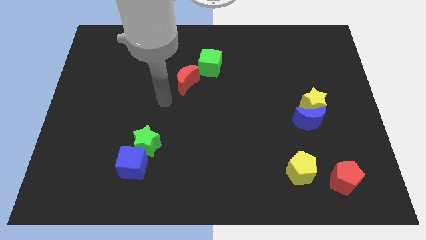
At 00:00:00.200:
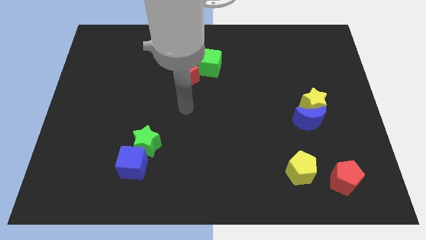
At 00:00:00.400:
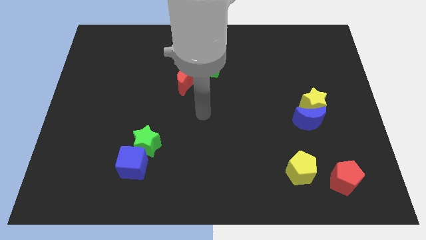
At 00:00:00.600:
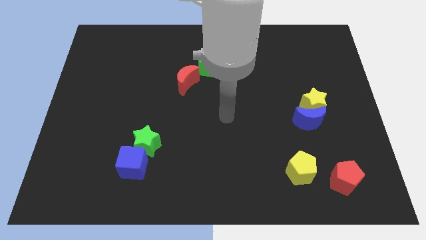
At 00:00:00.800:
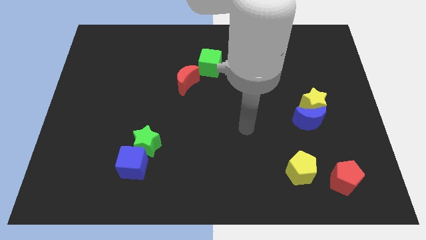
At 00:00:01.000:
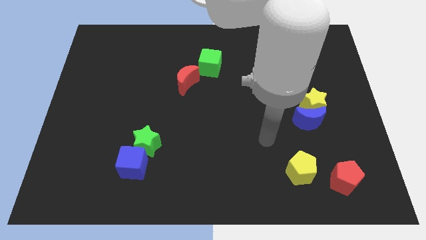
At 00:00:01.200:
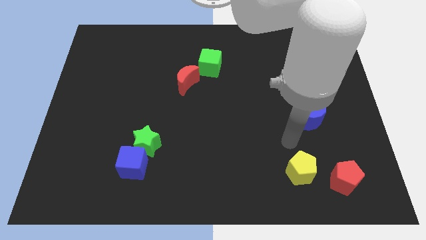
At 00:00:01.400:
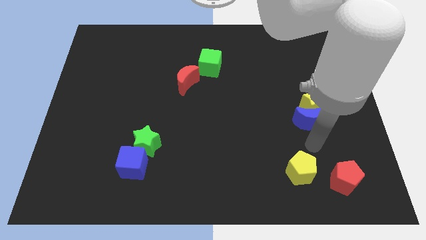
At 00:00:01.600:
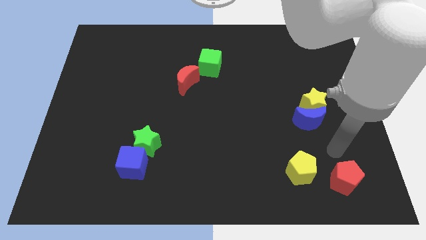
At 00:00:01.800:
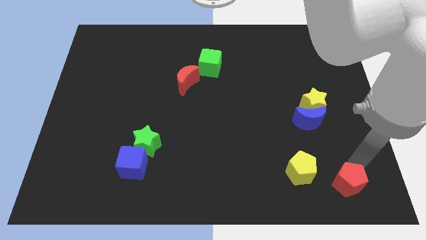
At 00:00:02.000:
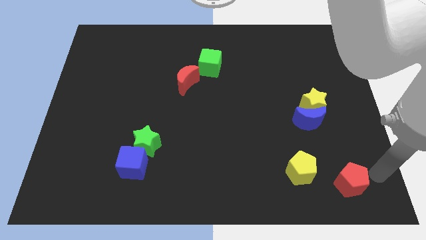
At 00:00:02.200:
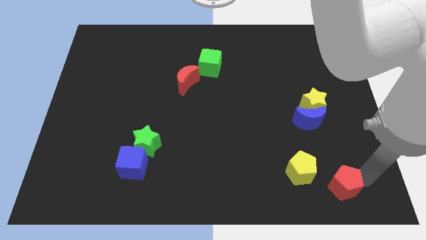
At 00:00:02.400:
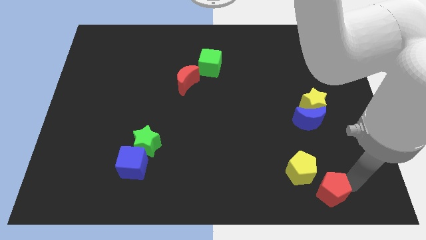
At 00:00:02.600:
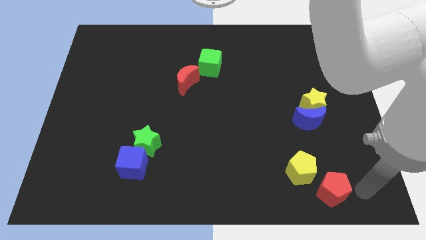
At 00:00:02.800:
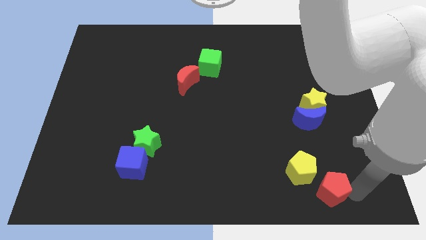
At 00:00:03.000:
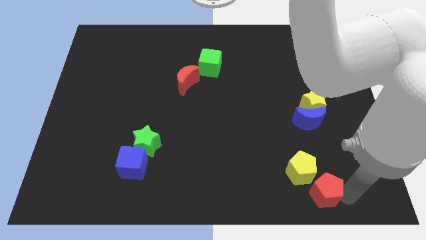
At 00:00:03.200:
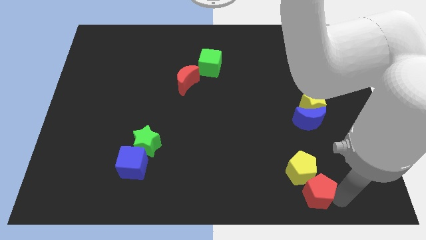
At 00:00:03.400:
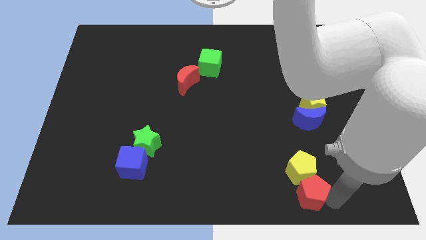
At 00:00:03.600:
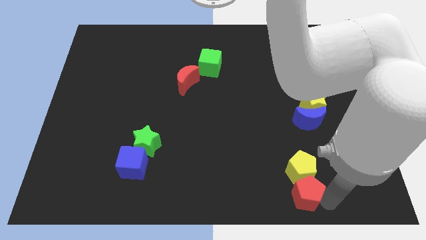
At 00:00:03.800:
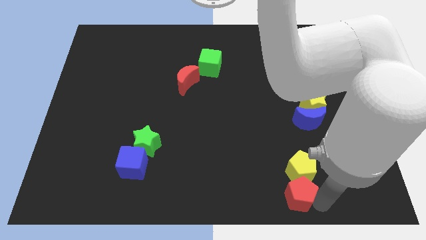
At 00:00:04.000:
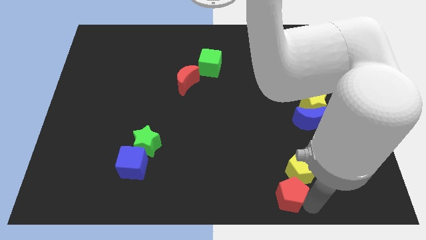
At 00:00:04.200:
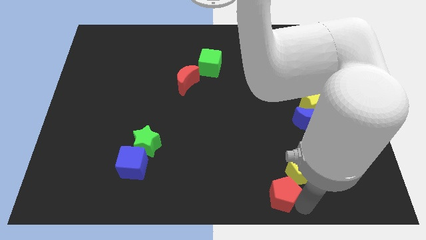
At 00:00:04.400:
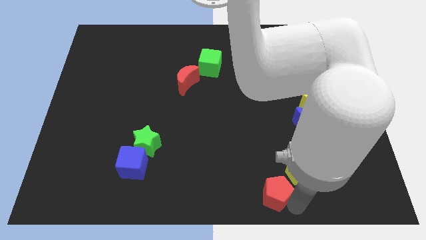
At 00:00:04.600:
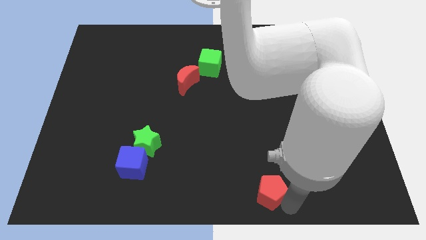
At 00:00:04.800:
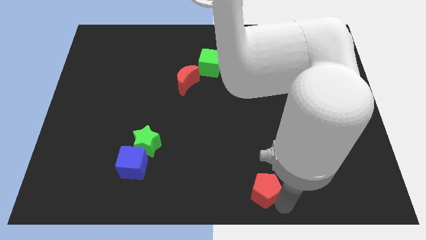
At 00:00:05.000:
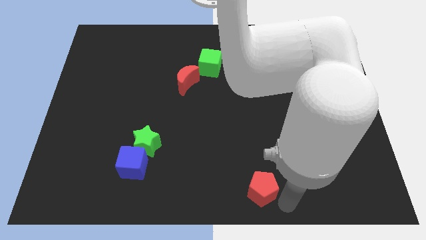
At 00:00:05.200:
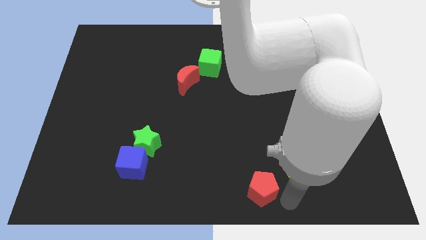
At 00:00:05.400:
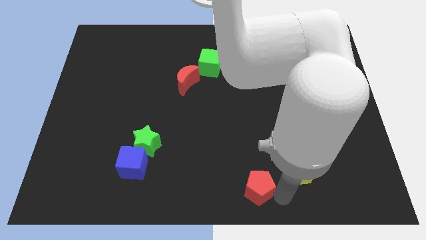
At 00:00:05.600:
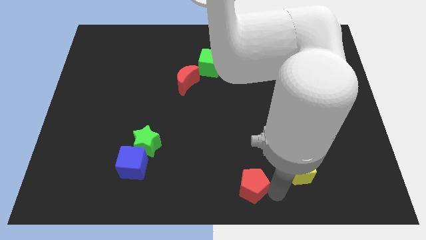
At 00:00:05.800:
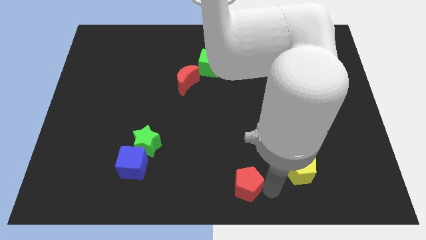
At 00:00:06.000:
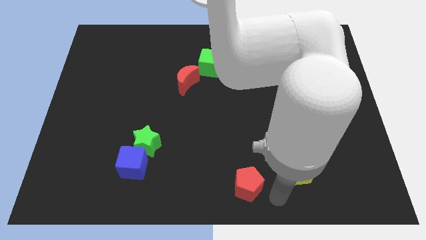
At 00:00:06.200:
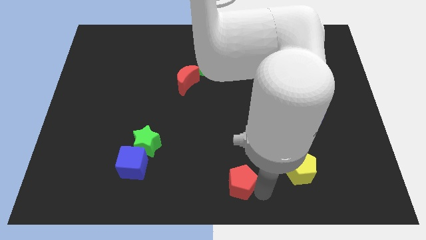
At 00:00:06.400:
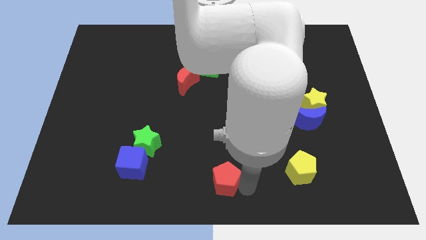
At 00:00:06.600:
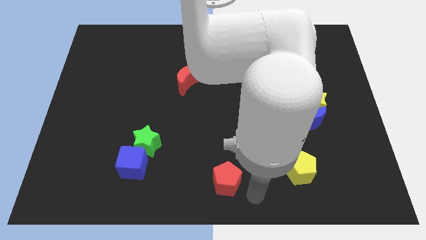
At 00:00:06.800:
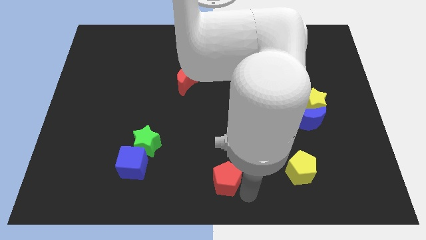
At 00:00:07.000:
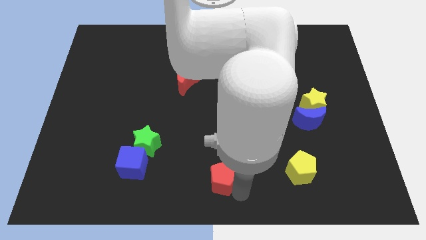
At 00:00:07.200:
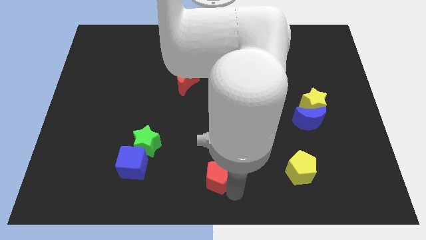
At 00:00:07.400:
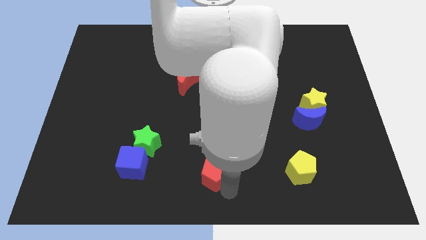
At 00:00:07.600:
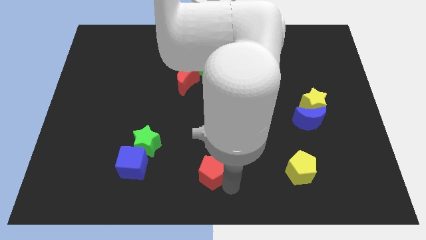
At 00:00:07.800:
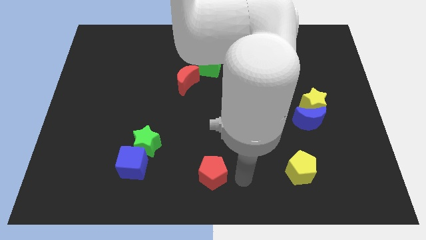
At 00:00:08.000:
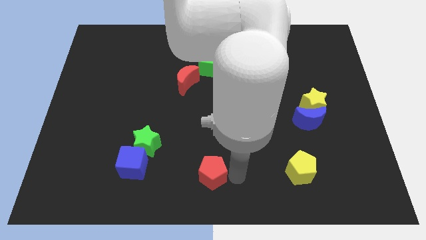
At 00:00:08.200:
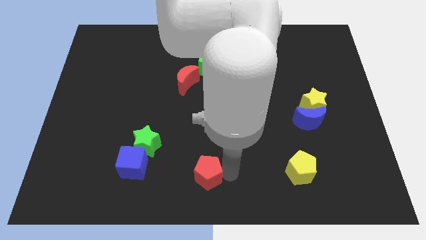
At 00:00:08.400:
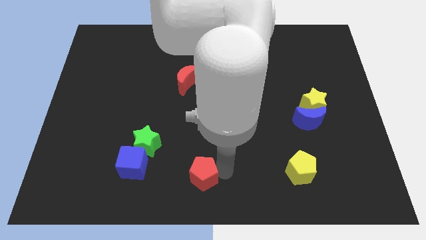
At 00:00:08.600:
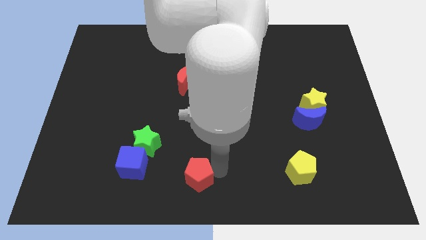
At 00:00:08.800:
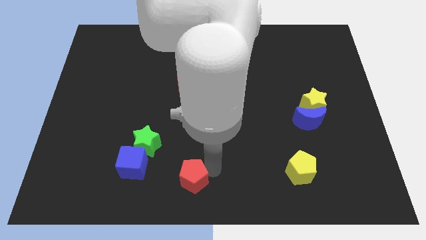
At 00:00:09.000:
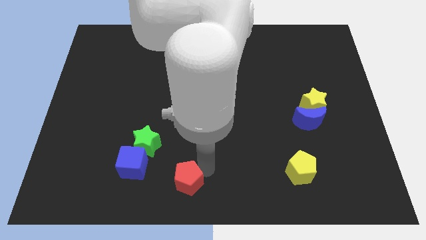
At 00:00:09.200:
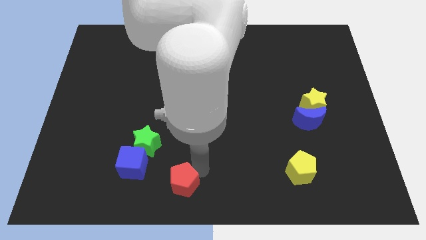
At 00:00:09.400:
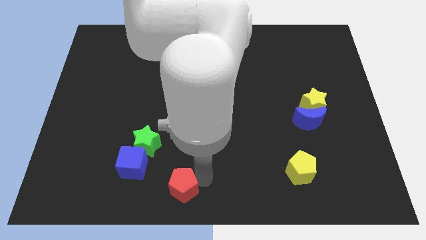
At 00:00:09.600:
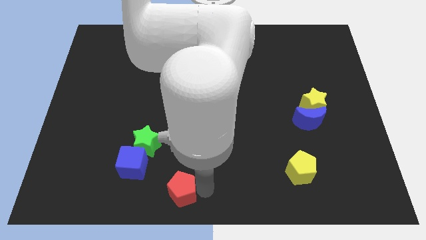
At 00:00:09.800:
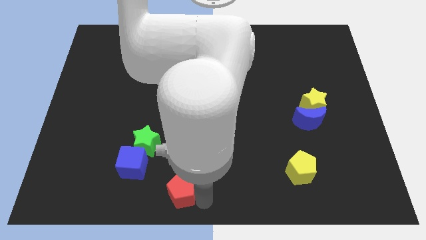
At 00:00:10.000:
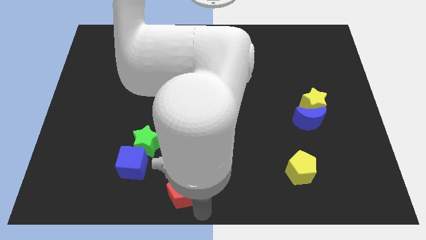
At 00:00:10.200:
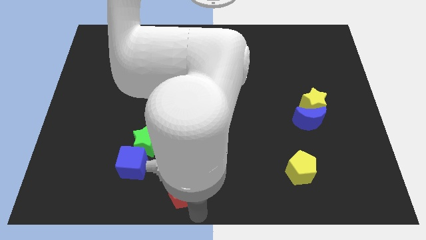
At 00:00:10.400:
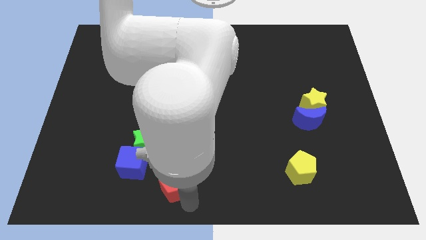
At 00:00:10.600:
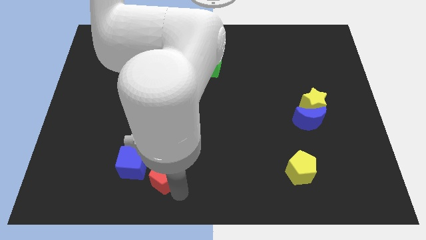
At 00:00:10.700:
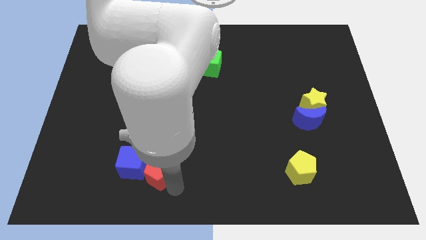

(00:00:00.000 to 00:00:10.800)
move the red pentagon to the blue cube

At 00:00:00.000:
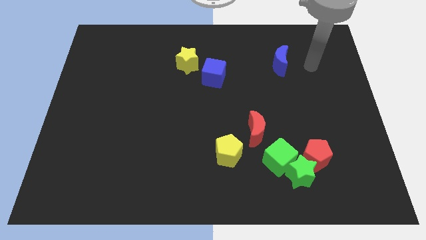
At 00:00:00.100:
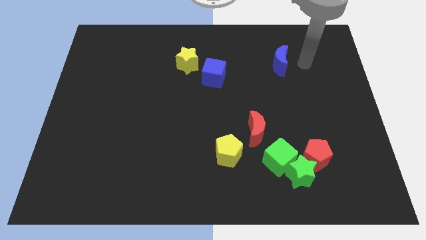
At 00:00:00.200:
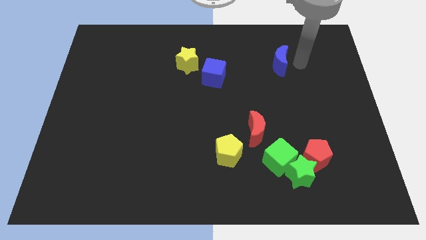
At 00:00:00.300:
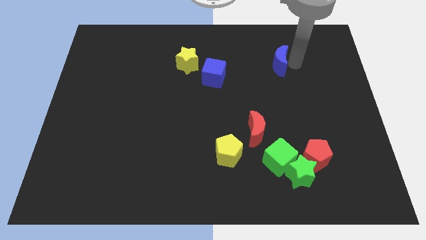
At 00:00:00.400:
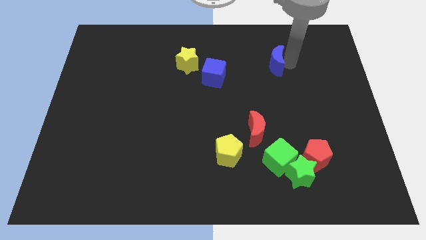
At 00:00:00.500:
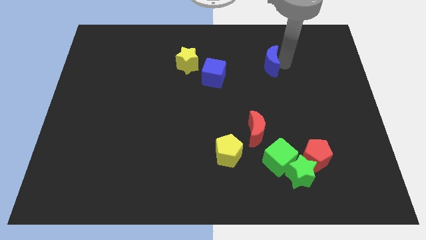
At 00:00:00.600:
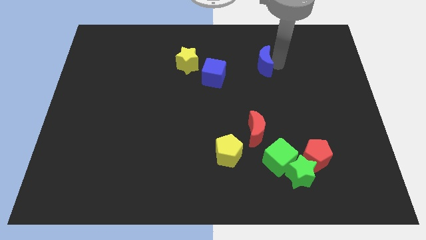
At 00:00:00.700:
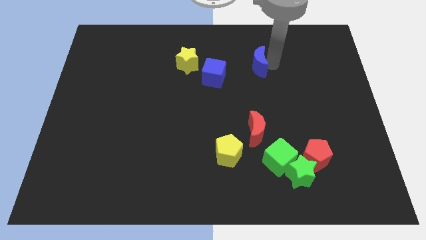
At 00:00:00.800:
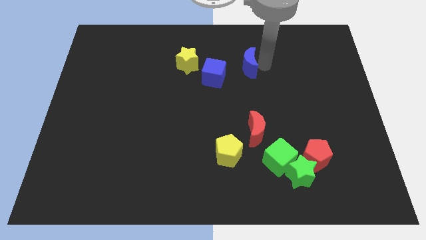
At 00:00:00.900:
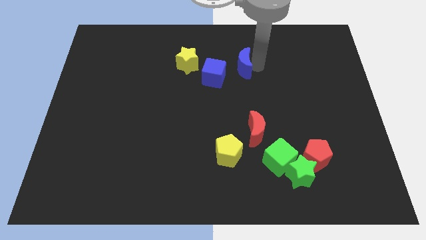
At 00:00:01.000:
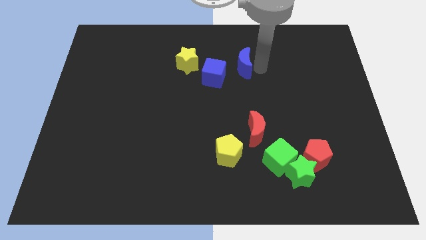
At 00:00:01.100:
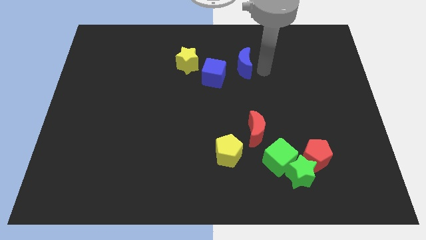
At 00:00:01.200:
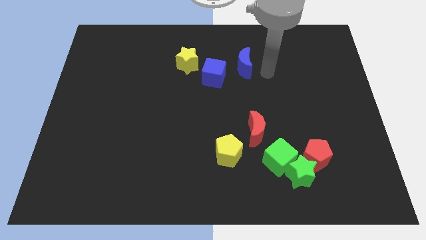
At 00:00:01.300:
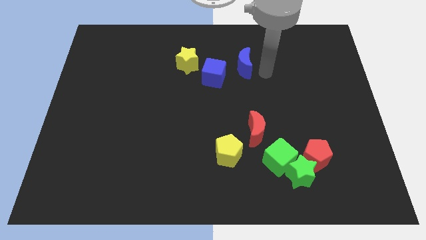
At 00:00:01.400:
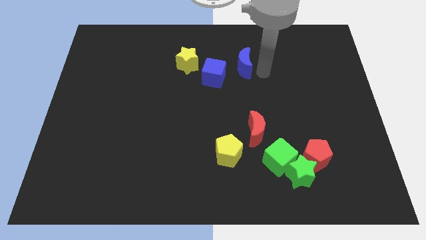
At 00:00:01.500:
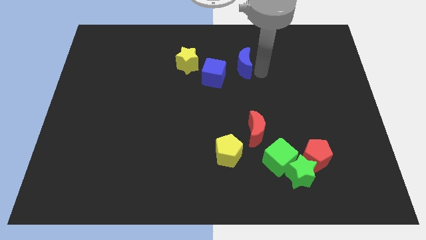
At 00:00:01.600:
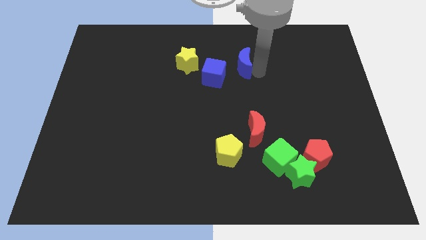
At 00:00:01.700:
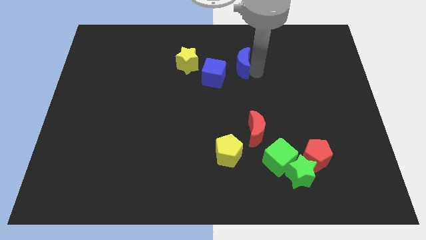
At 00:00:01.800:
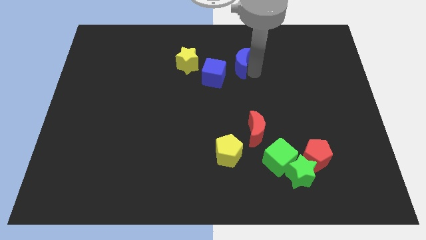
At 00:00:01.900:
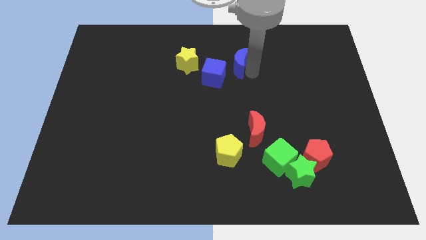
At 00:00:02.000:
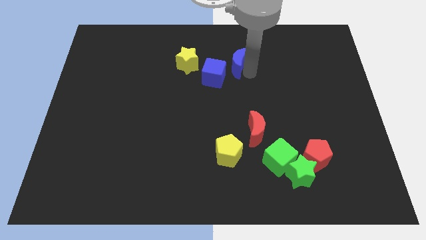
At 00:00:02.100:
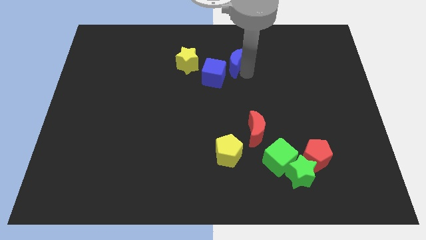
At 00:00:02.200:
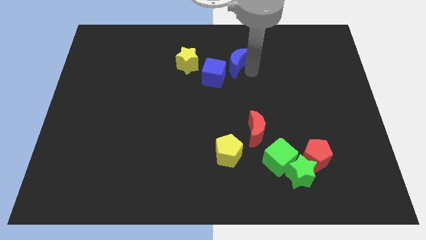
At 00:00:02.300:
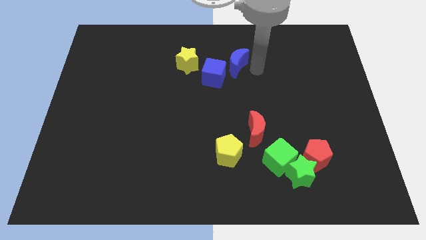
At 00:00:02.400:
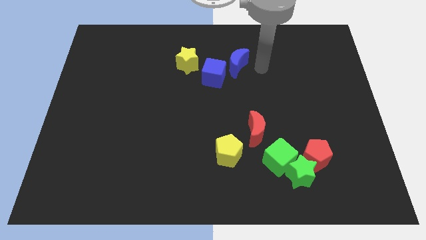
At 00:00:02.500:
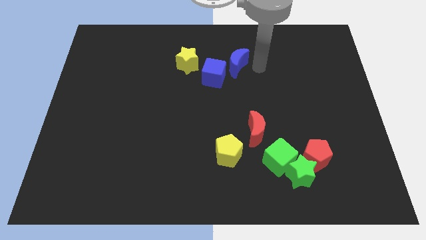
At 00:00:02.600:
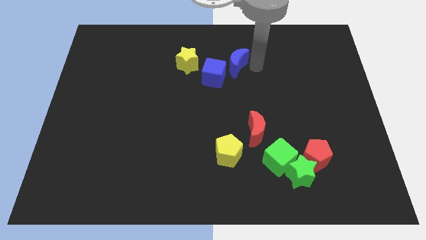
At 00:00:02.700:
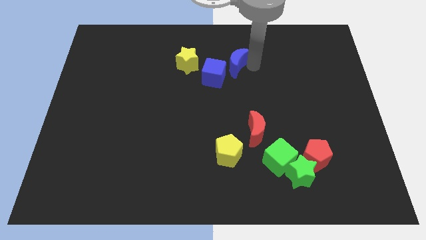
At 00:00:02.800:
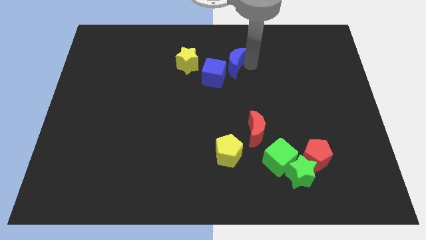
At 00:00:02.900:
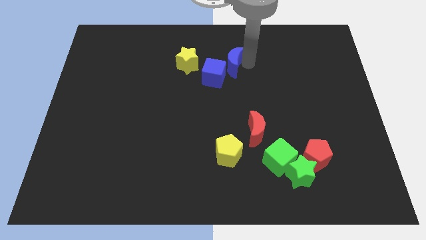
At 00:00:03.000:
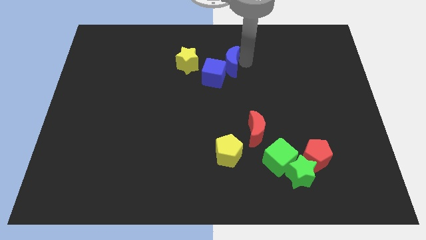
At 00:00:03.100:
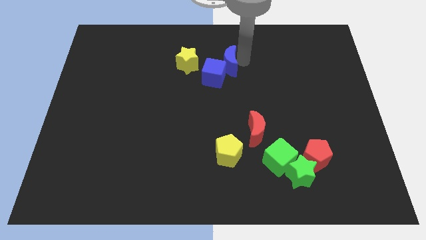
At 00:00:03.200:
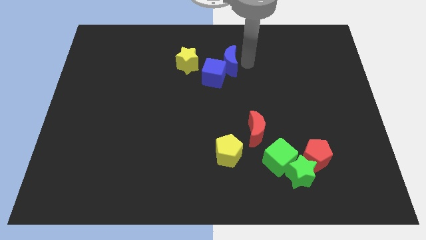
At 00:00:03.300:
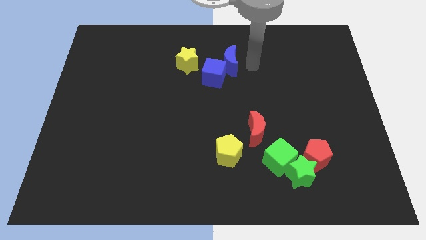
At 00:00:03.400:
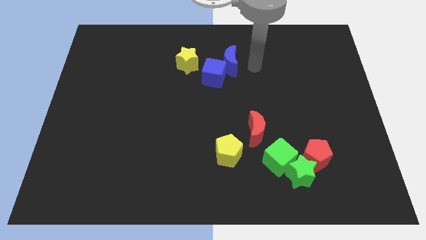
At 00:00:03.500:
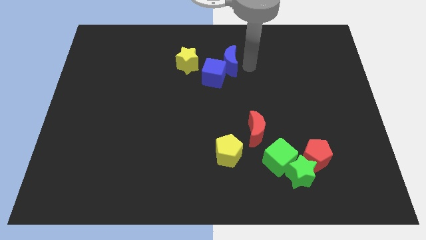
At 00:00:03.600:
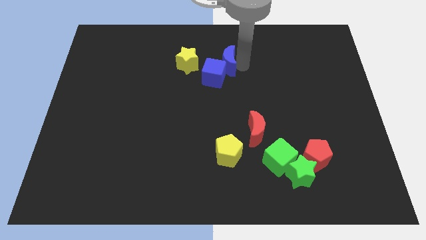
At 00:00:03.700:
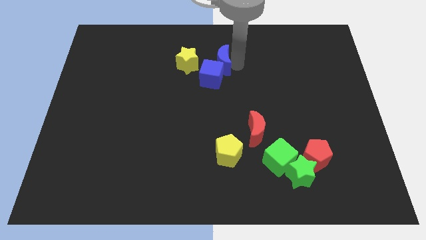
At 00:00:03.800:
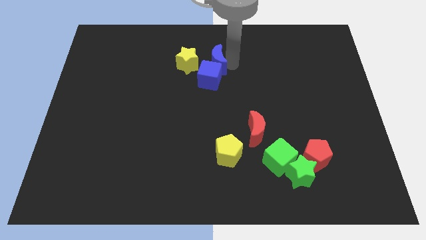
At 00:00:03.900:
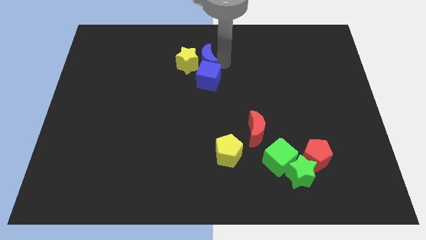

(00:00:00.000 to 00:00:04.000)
push the blue moon next to the yellow star
